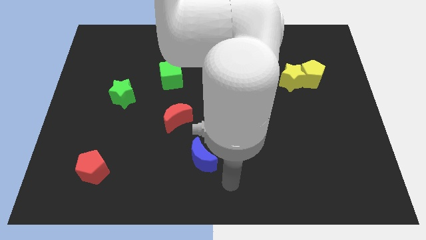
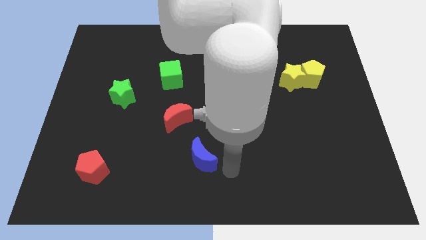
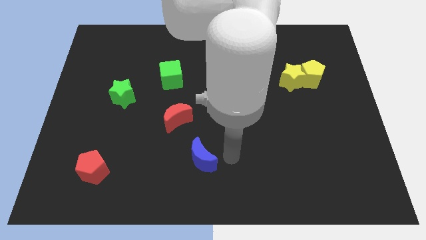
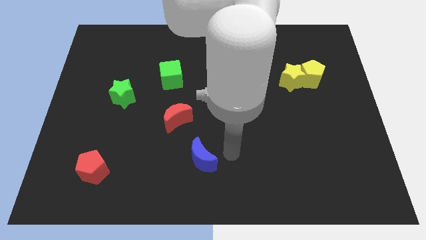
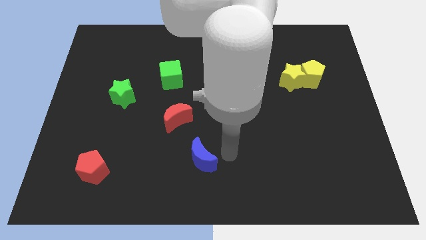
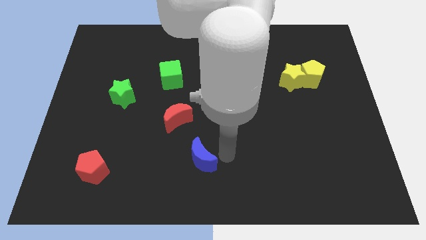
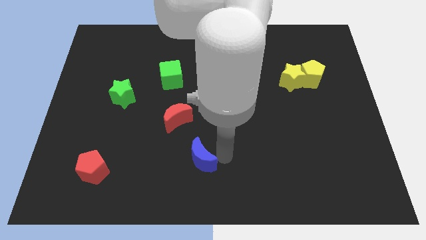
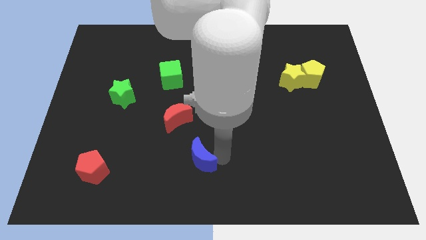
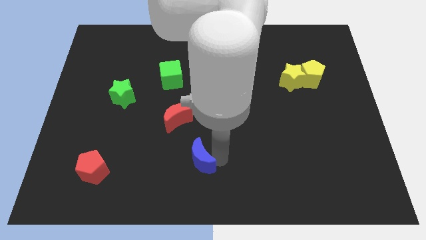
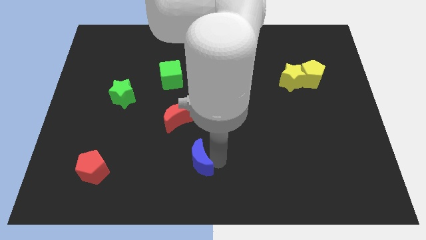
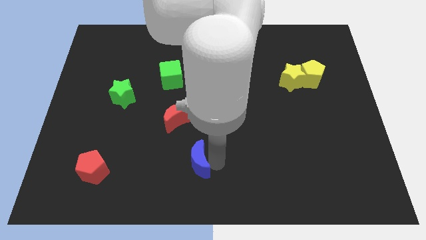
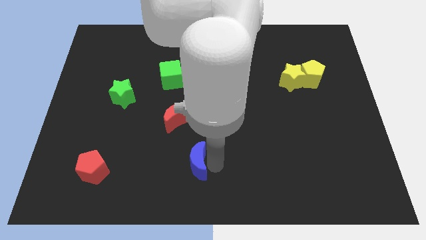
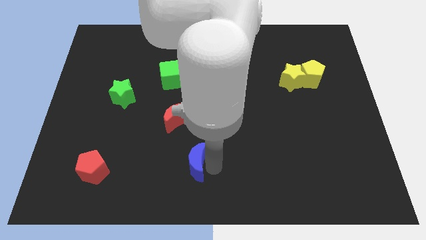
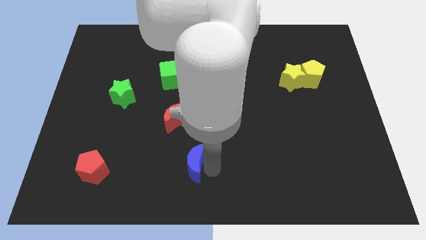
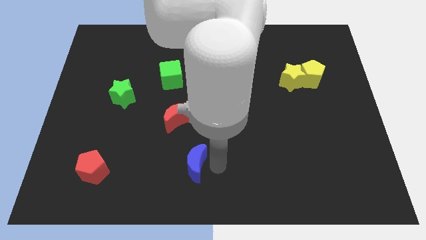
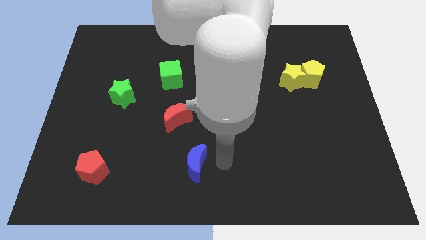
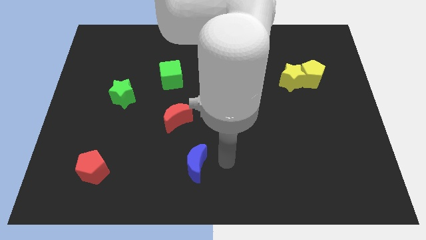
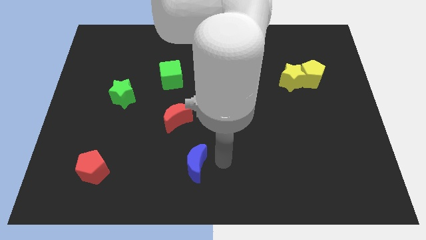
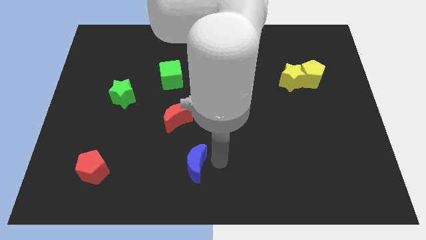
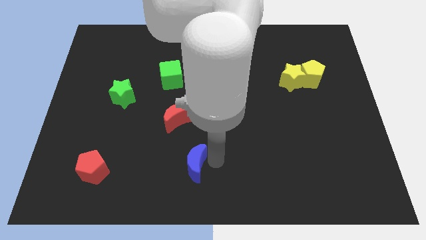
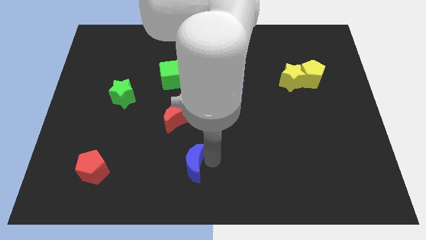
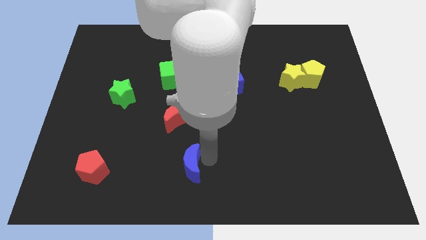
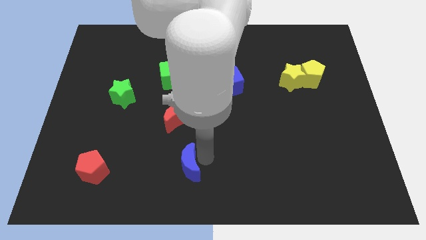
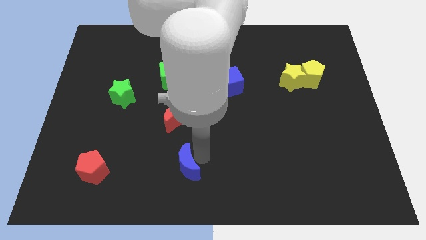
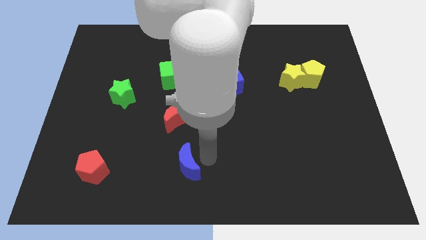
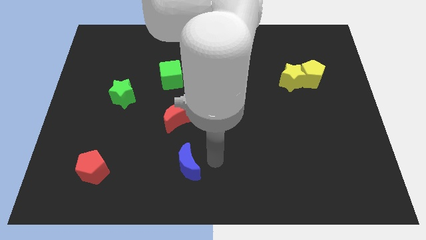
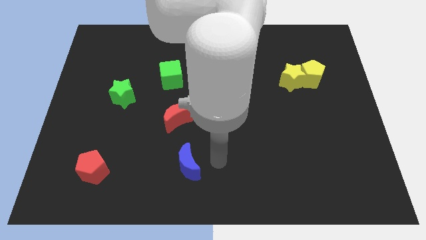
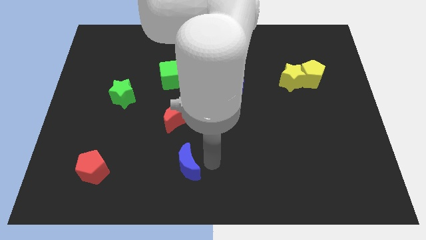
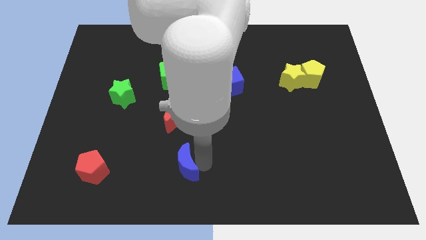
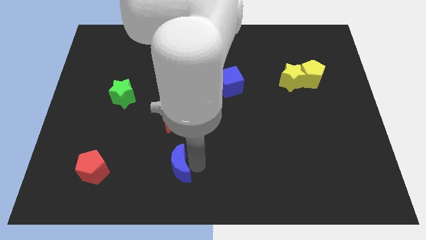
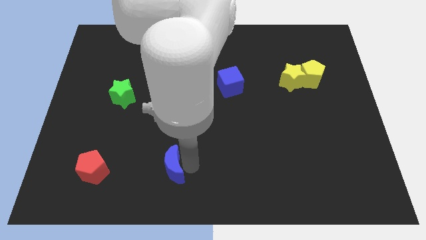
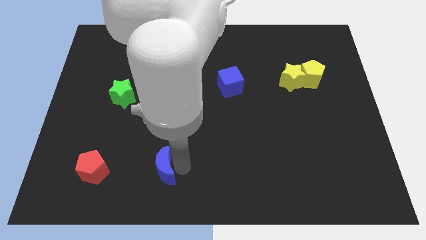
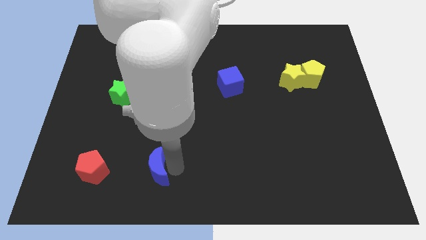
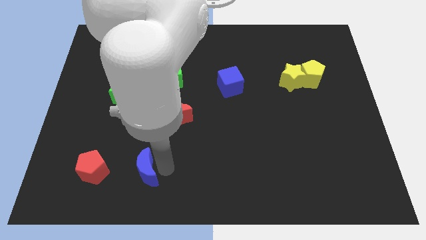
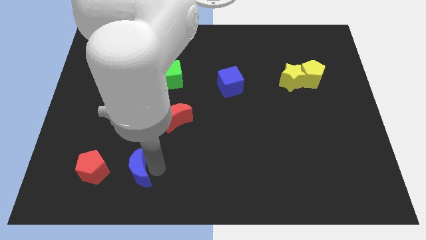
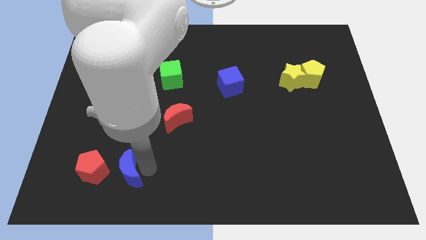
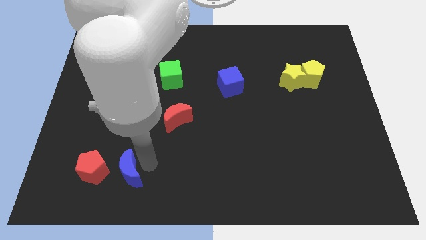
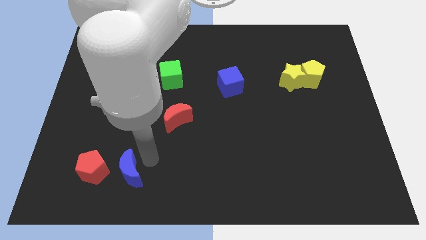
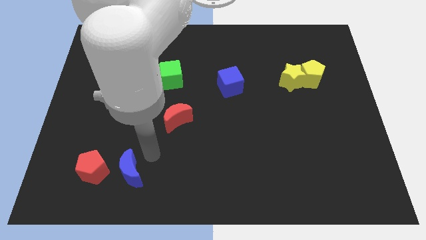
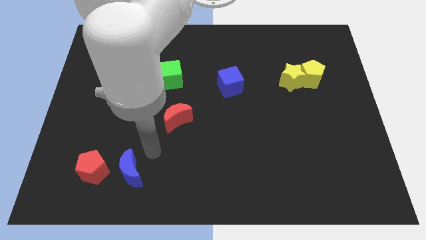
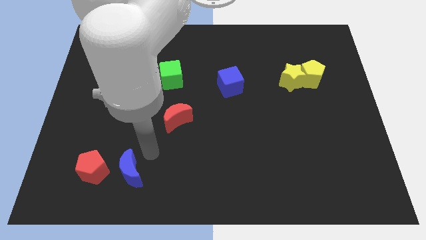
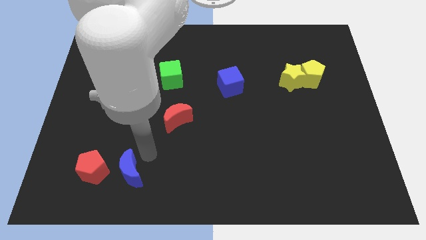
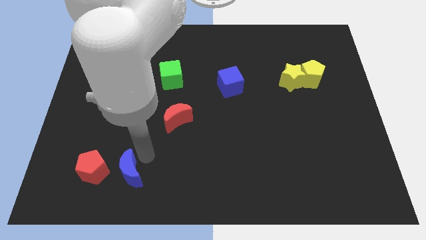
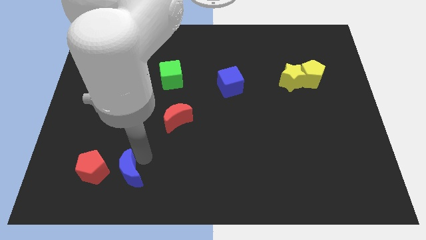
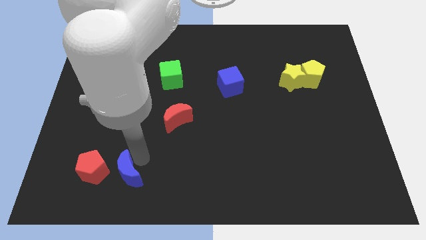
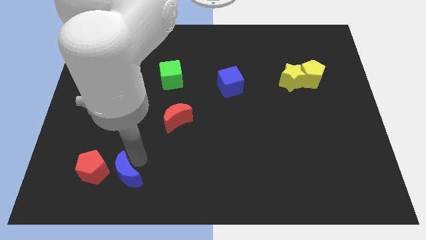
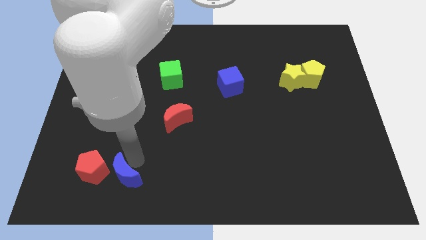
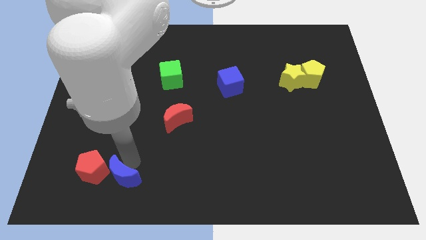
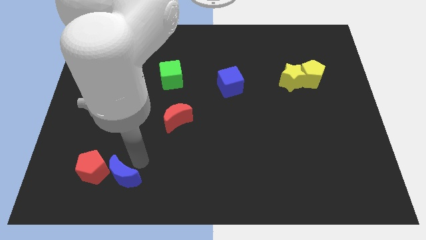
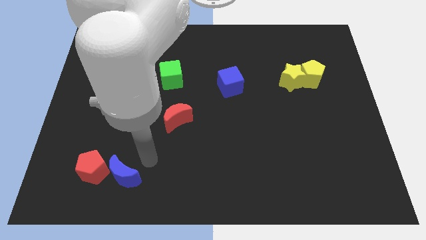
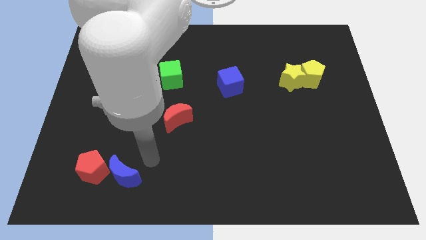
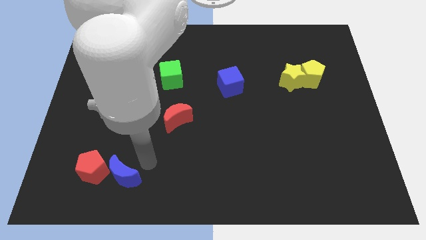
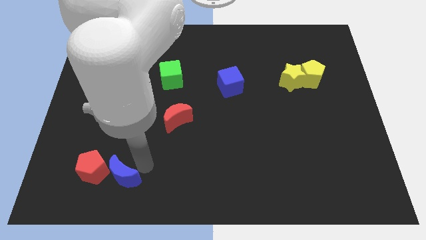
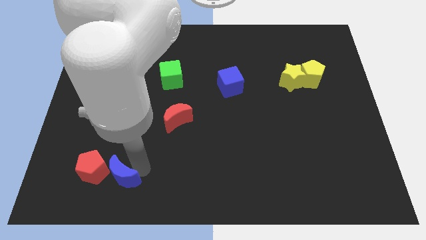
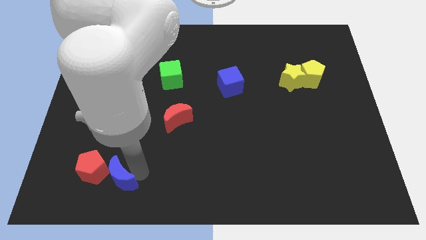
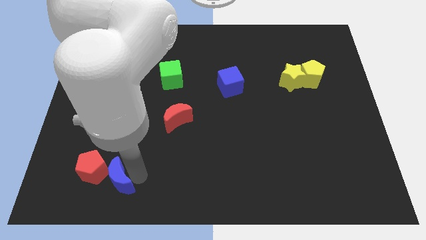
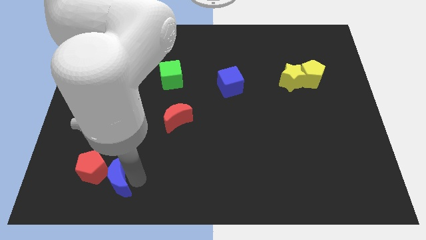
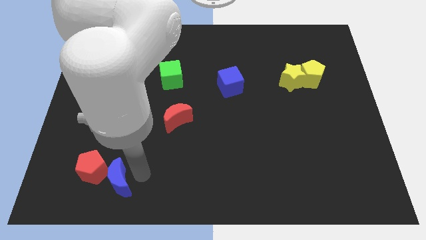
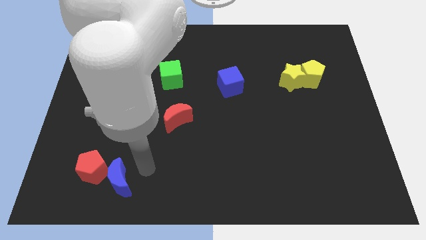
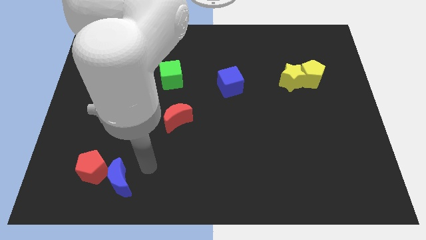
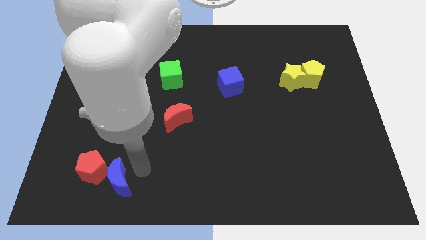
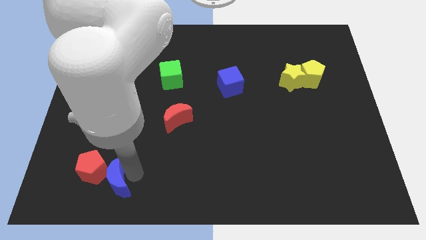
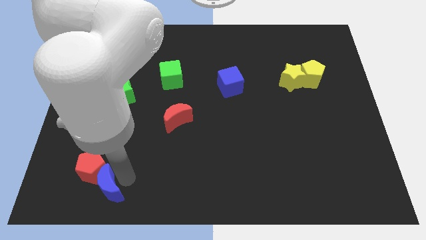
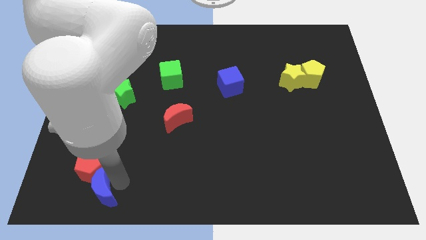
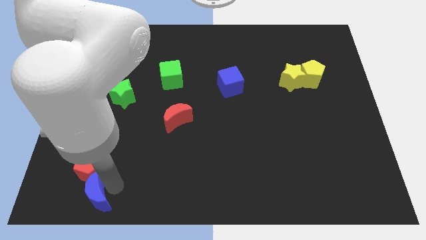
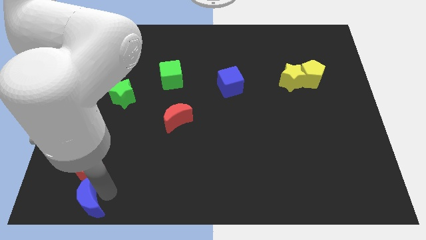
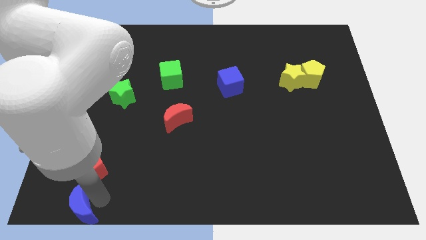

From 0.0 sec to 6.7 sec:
slide the blue moon to the bottom left corner
